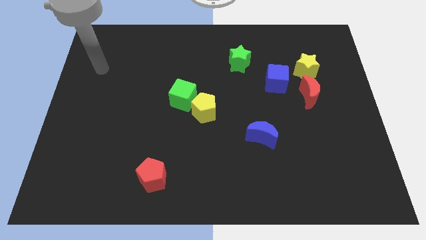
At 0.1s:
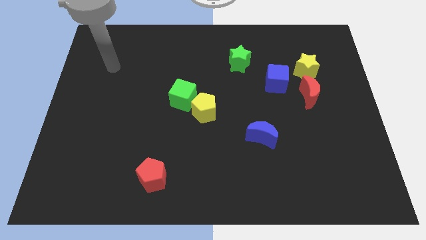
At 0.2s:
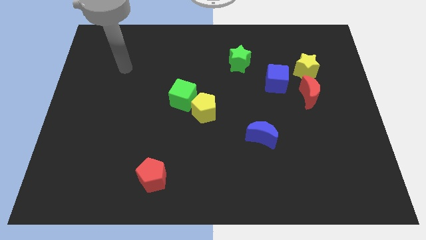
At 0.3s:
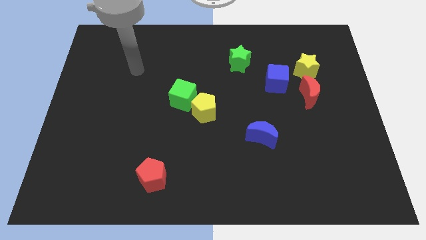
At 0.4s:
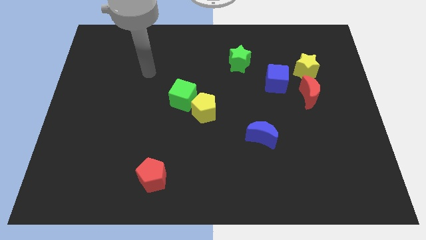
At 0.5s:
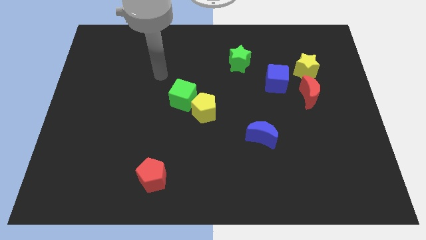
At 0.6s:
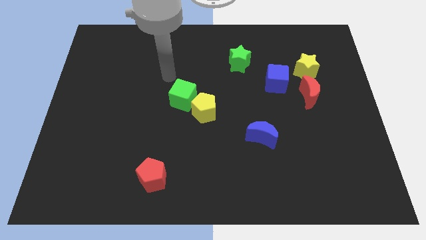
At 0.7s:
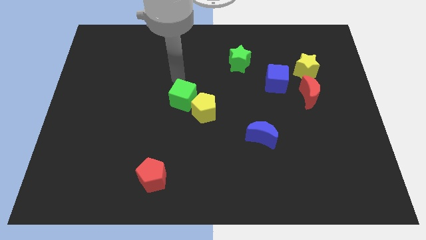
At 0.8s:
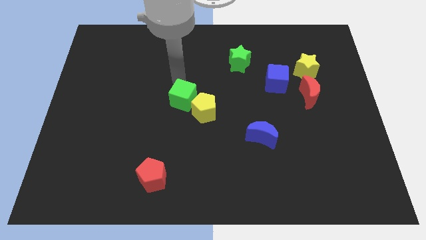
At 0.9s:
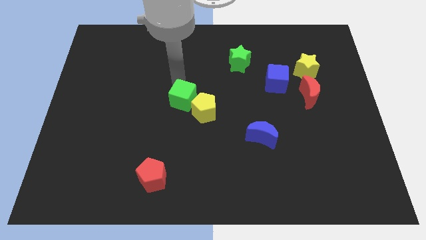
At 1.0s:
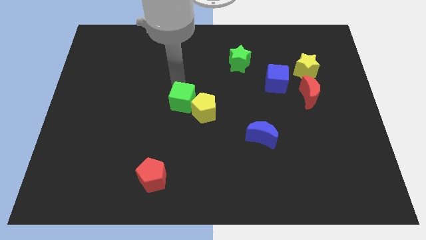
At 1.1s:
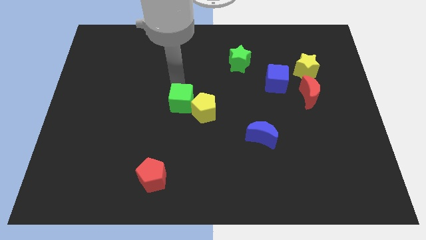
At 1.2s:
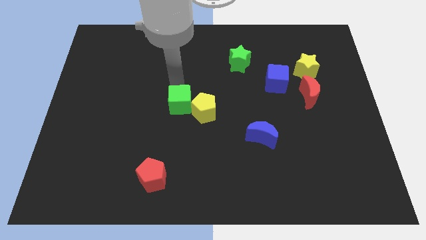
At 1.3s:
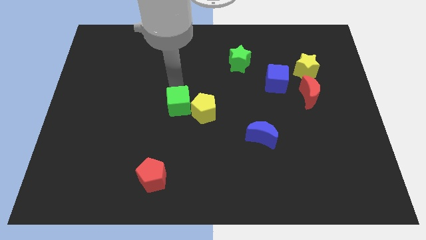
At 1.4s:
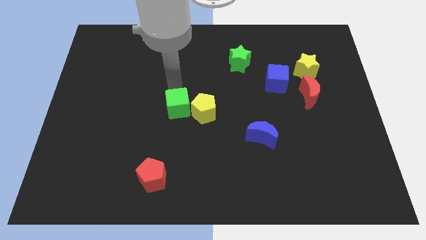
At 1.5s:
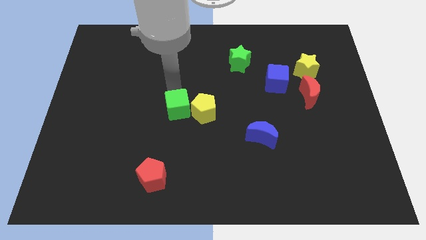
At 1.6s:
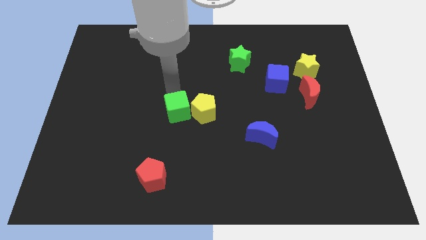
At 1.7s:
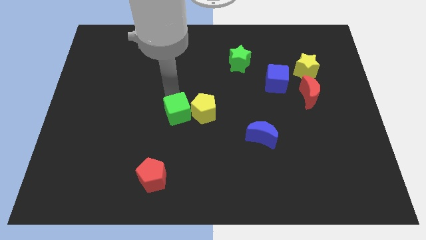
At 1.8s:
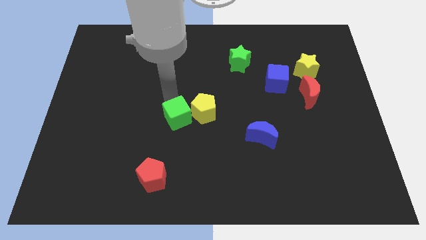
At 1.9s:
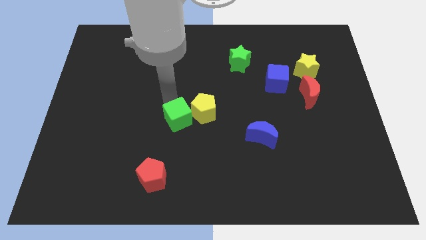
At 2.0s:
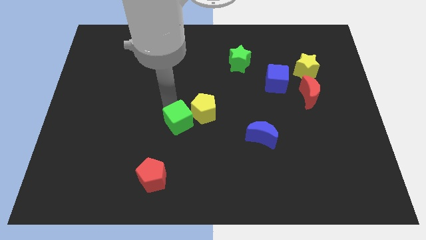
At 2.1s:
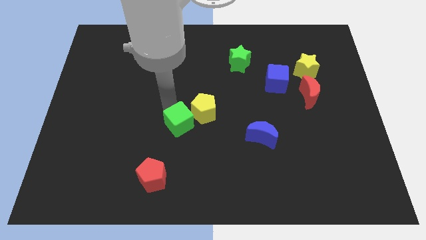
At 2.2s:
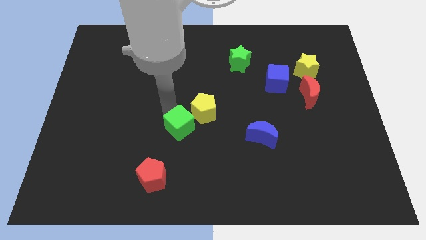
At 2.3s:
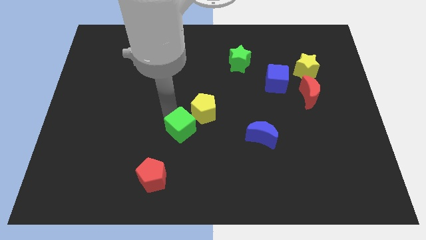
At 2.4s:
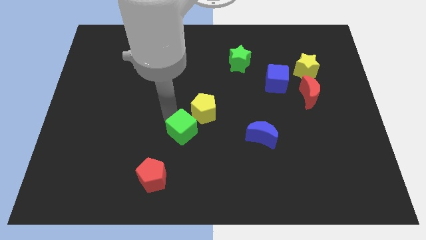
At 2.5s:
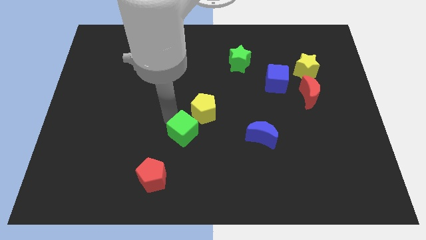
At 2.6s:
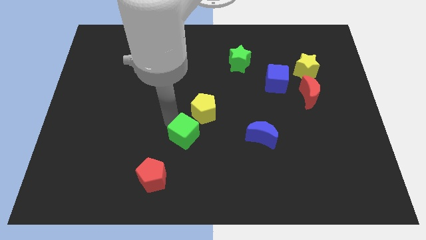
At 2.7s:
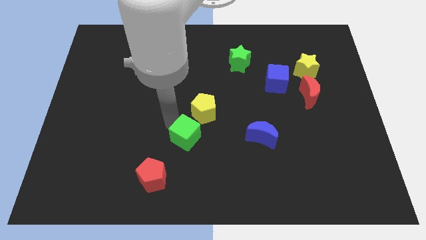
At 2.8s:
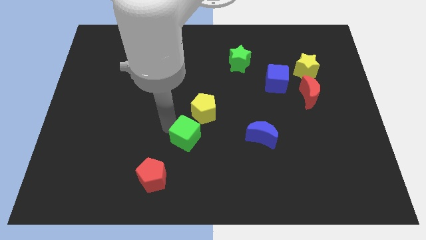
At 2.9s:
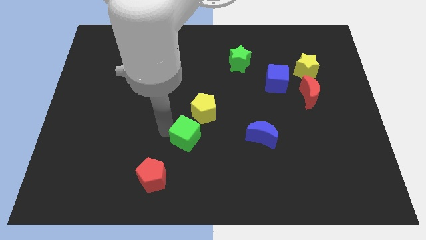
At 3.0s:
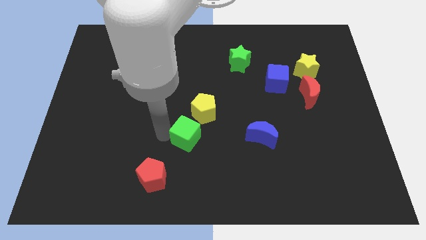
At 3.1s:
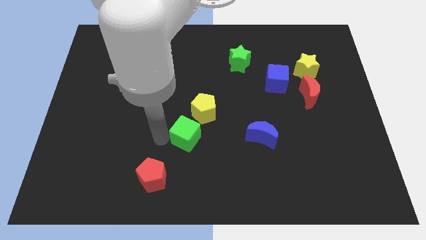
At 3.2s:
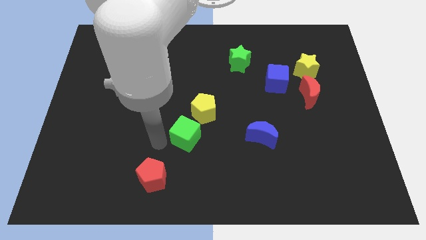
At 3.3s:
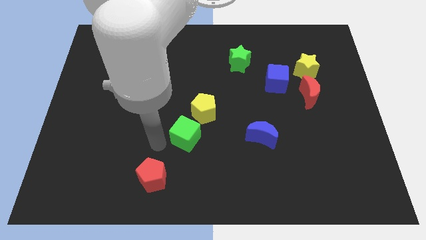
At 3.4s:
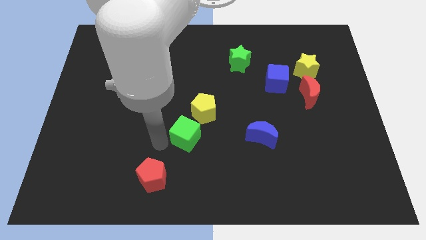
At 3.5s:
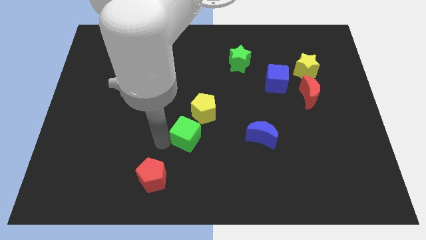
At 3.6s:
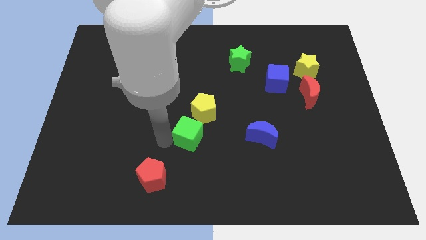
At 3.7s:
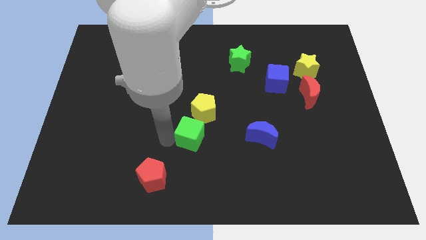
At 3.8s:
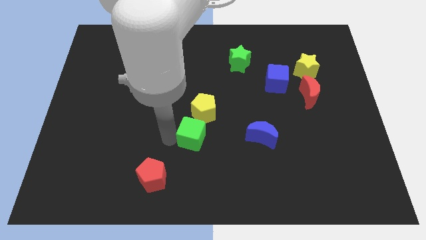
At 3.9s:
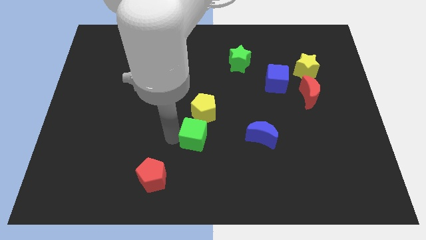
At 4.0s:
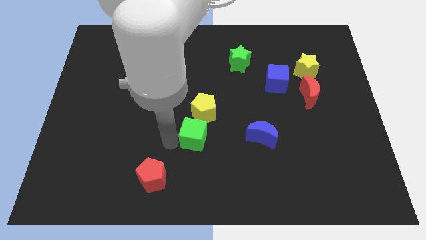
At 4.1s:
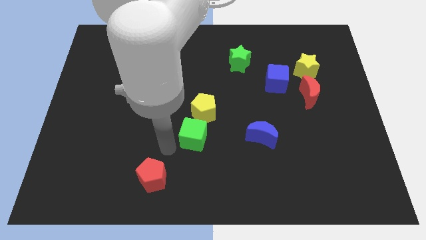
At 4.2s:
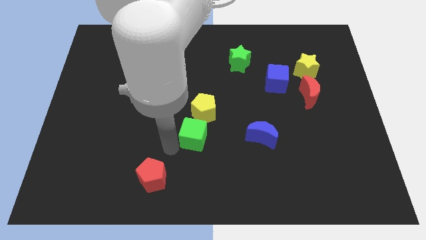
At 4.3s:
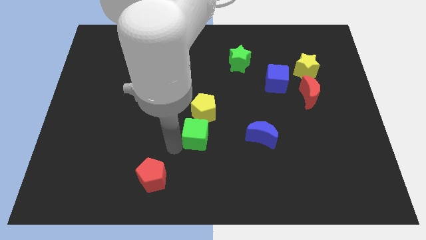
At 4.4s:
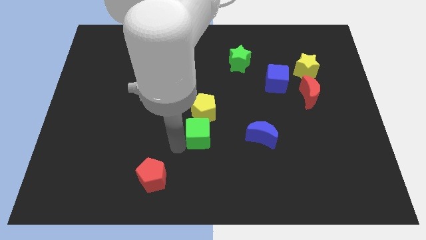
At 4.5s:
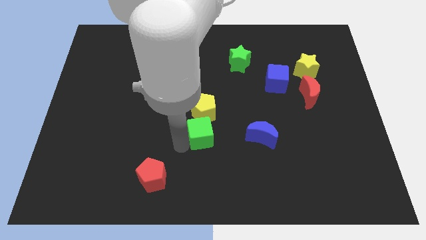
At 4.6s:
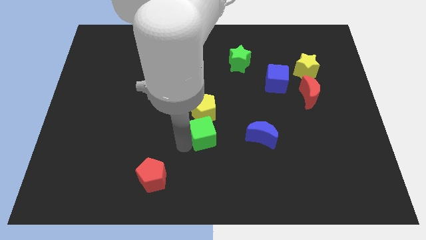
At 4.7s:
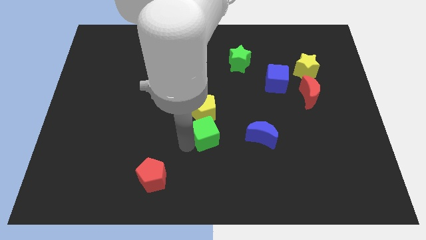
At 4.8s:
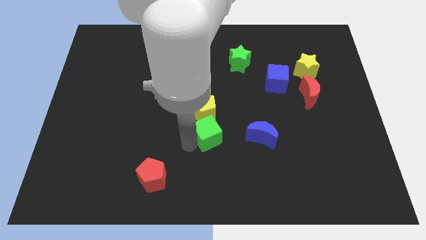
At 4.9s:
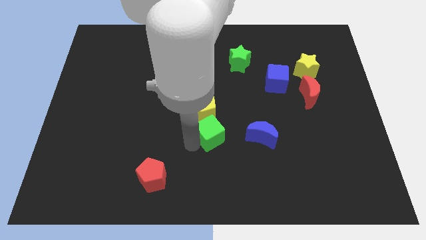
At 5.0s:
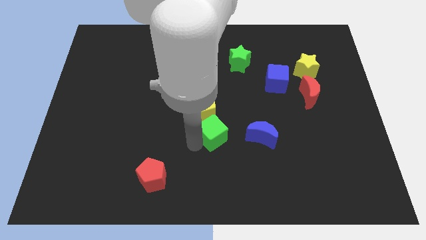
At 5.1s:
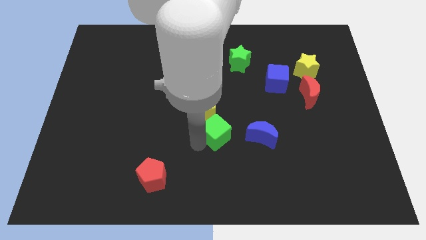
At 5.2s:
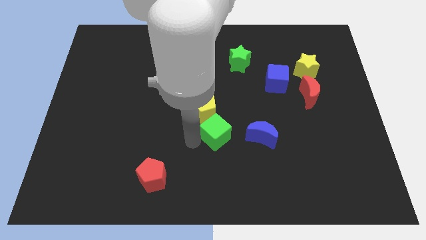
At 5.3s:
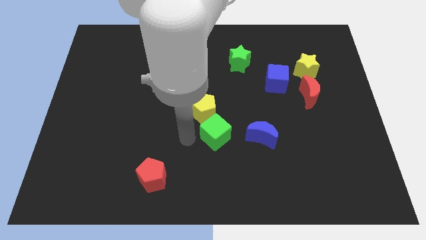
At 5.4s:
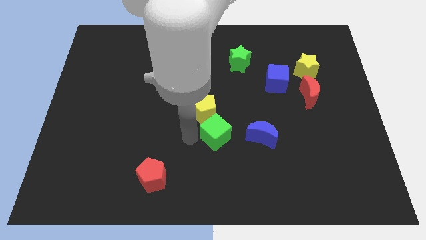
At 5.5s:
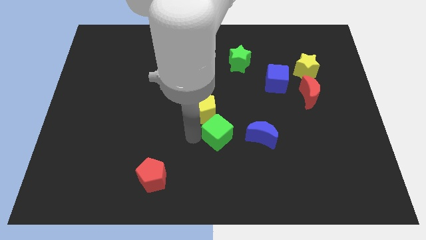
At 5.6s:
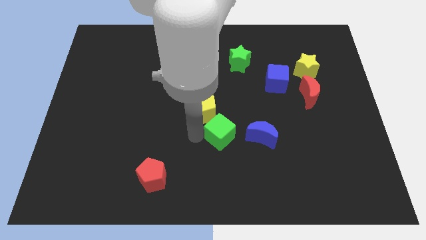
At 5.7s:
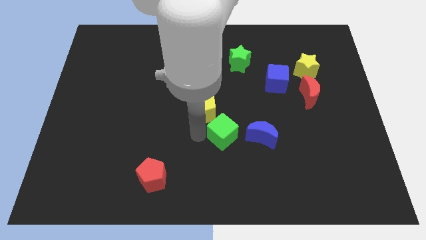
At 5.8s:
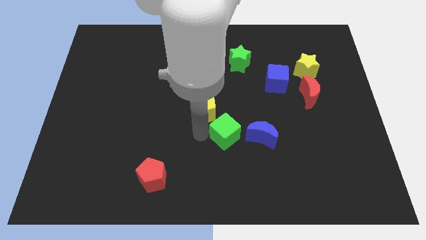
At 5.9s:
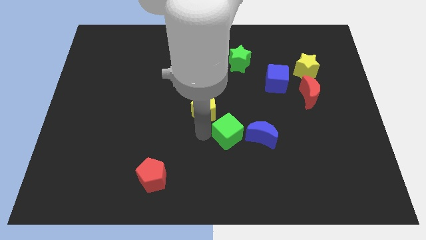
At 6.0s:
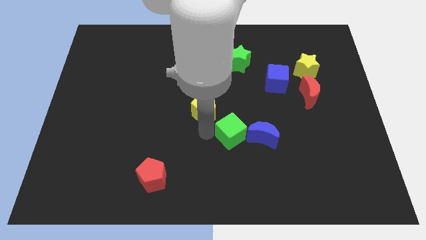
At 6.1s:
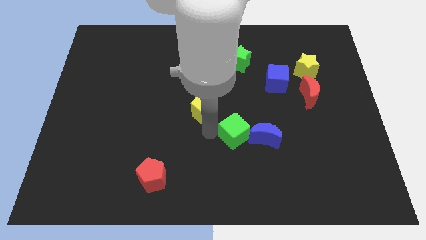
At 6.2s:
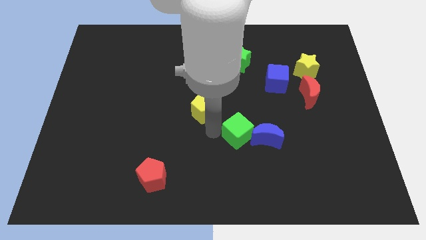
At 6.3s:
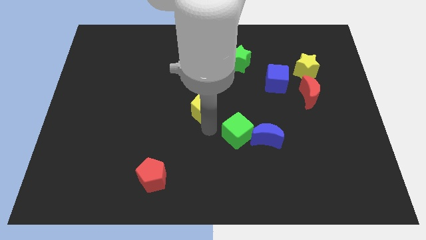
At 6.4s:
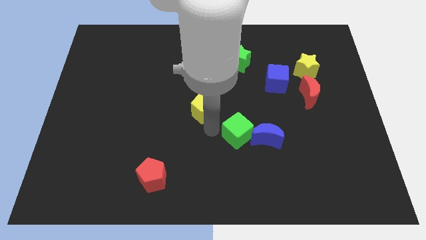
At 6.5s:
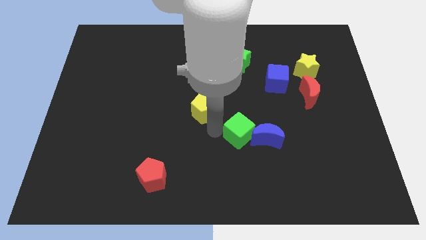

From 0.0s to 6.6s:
put the green cube close to the blue moon

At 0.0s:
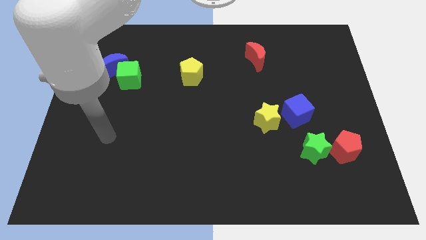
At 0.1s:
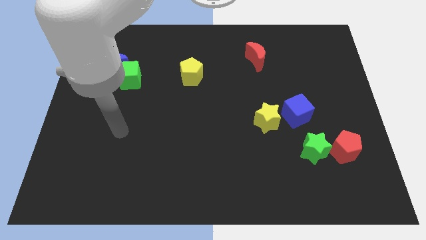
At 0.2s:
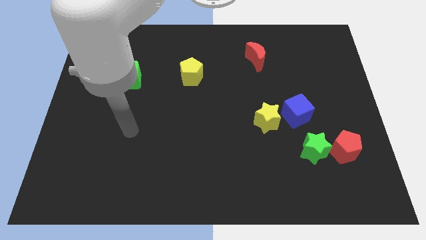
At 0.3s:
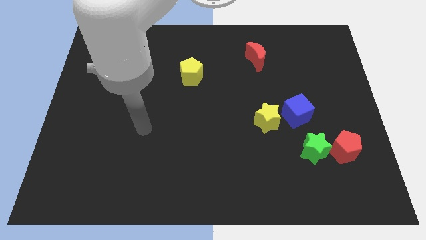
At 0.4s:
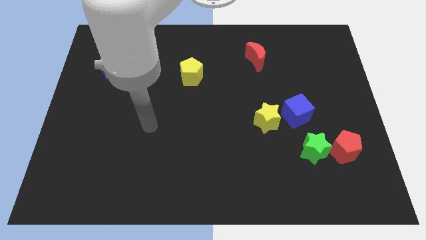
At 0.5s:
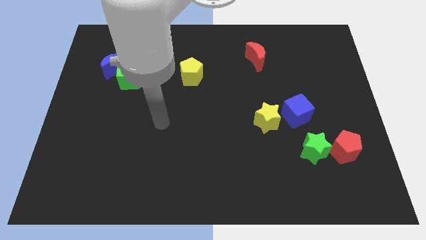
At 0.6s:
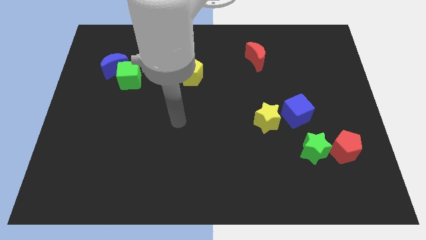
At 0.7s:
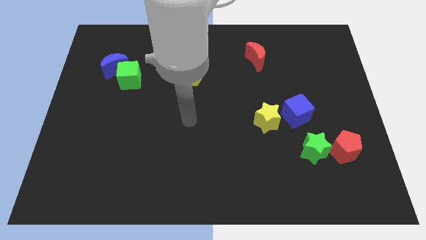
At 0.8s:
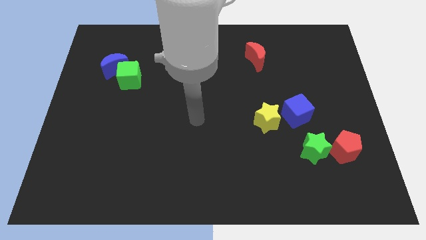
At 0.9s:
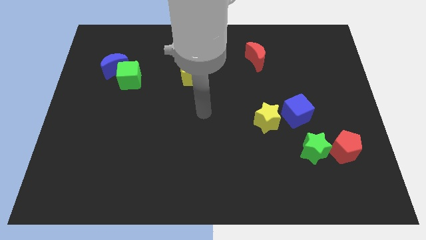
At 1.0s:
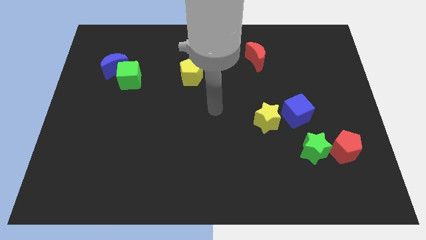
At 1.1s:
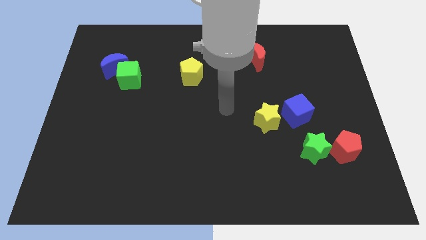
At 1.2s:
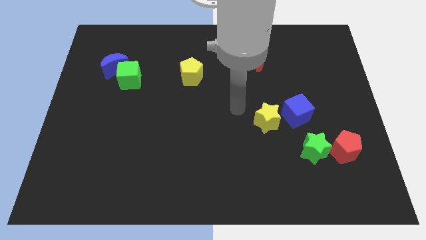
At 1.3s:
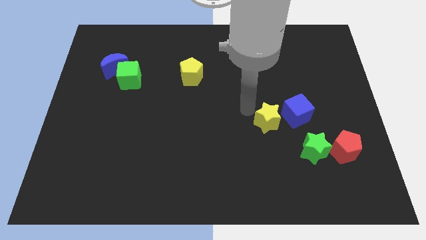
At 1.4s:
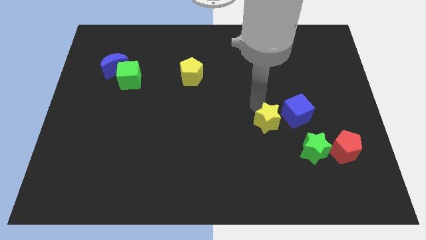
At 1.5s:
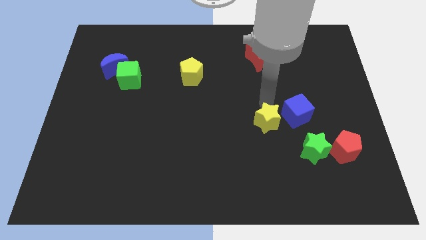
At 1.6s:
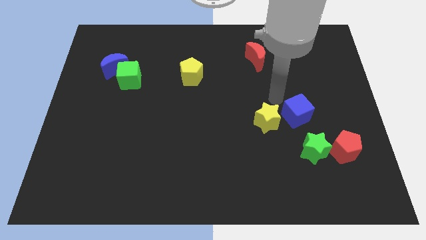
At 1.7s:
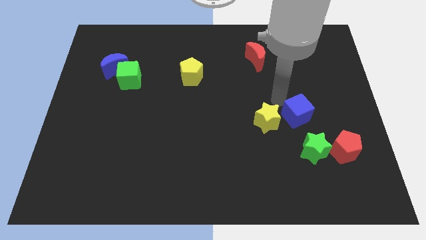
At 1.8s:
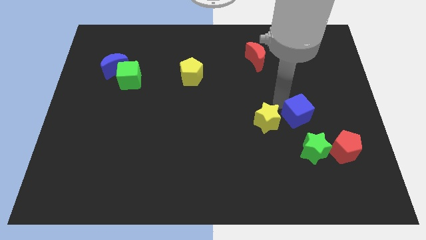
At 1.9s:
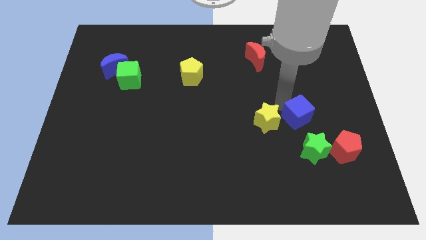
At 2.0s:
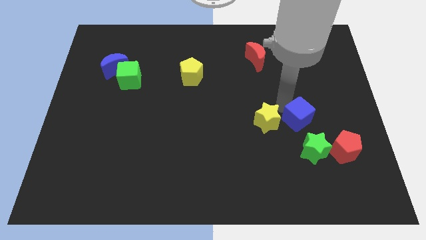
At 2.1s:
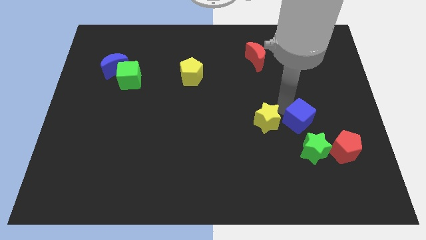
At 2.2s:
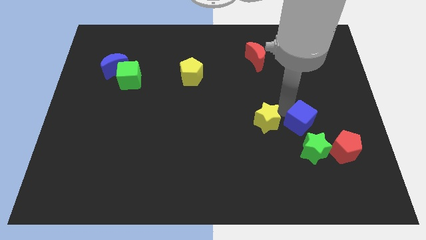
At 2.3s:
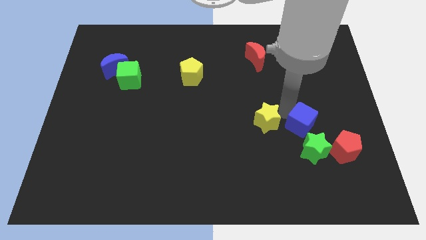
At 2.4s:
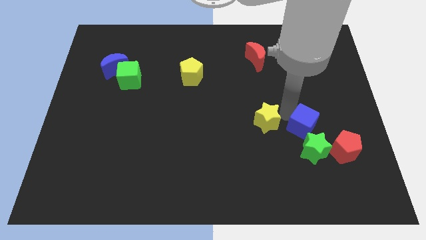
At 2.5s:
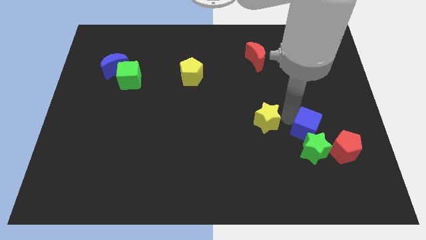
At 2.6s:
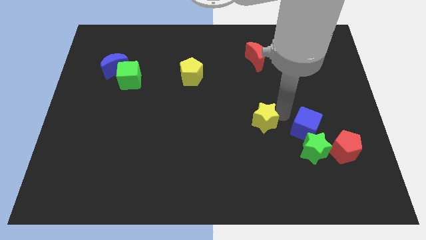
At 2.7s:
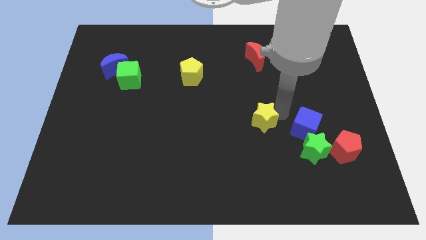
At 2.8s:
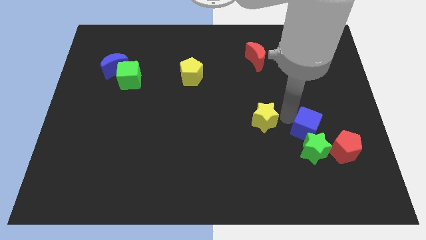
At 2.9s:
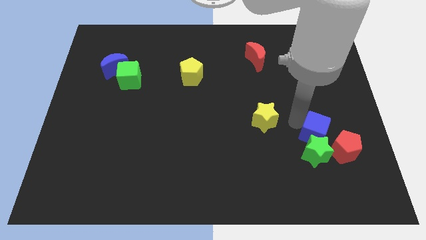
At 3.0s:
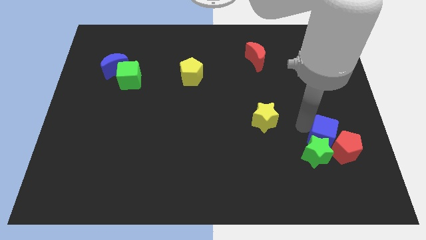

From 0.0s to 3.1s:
move the blue cube next to the red pentagon
